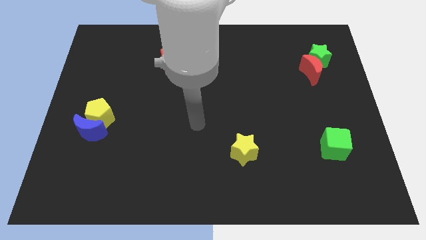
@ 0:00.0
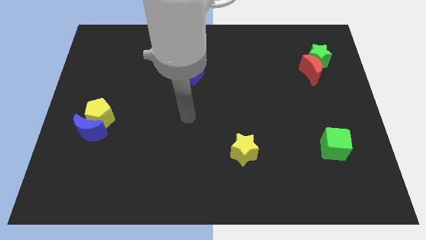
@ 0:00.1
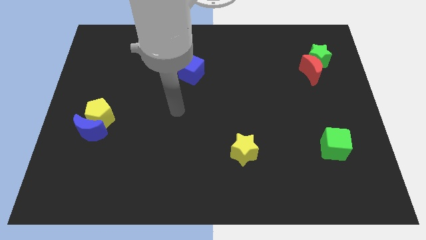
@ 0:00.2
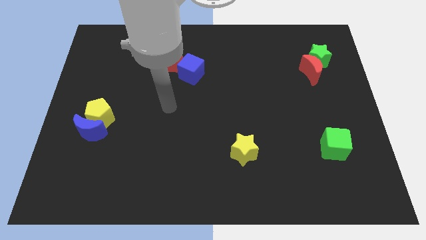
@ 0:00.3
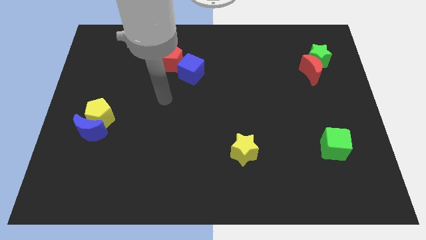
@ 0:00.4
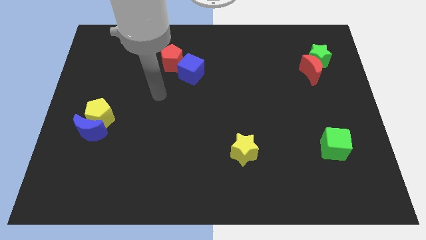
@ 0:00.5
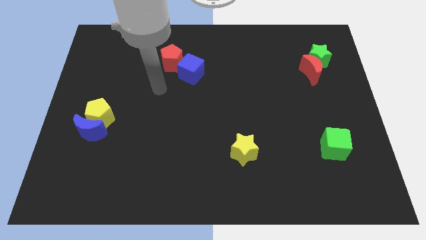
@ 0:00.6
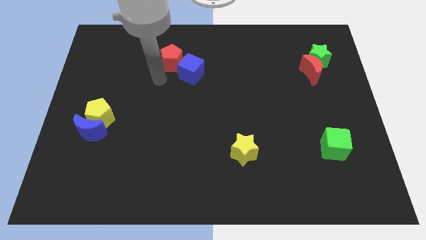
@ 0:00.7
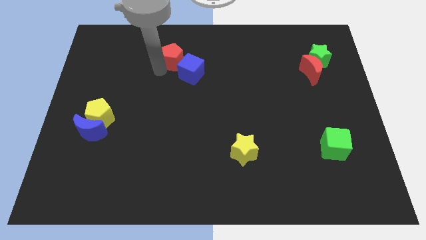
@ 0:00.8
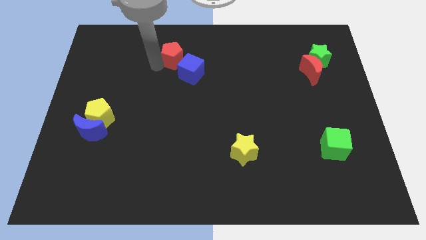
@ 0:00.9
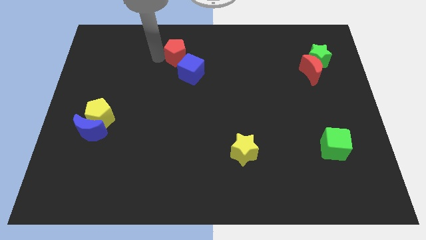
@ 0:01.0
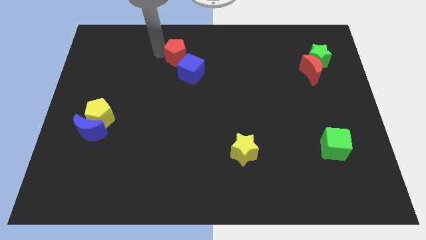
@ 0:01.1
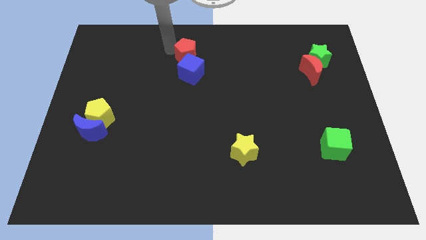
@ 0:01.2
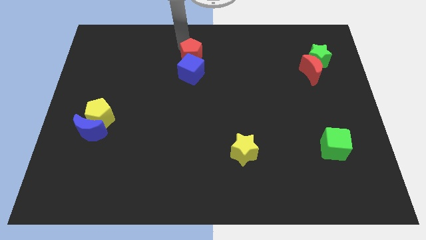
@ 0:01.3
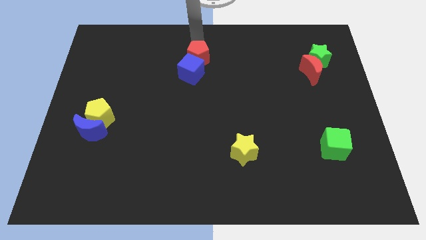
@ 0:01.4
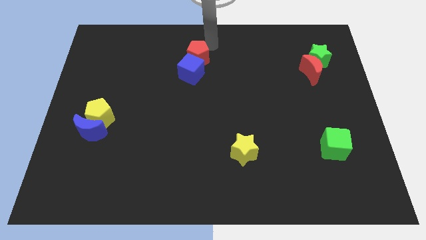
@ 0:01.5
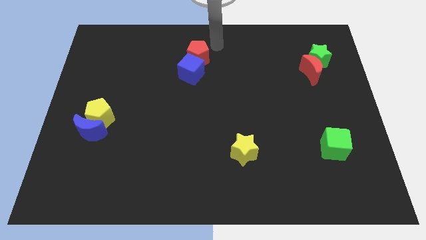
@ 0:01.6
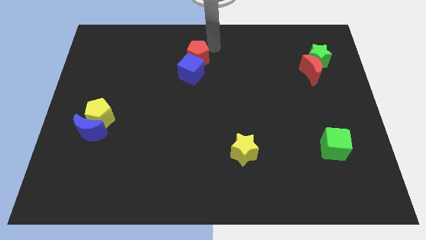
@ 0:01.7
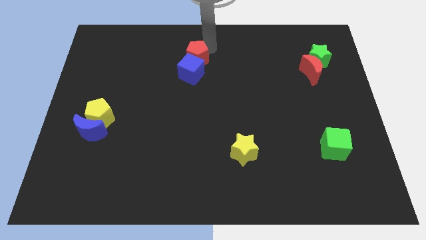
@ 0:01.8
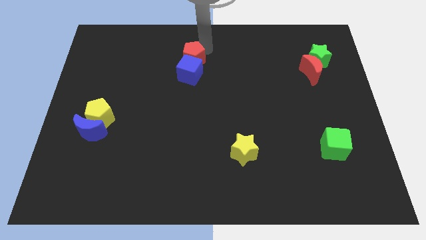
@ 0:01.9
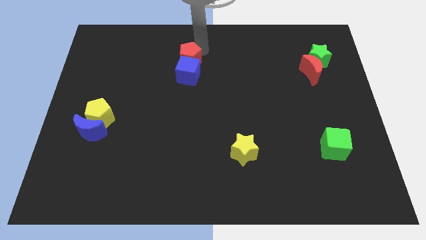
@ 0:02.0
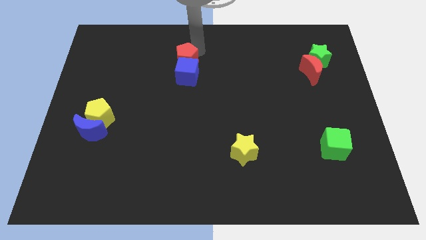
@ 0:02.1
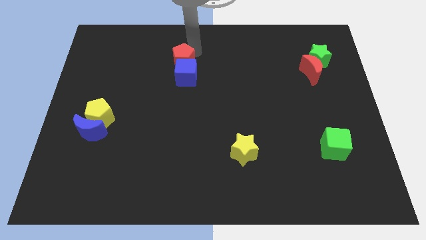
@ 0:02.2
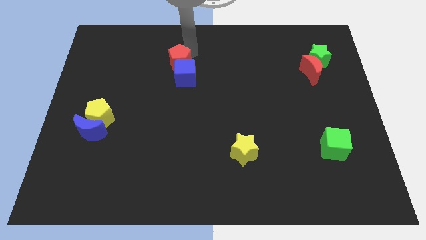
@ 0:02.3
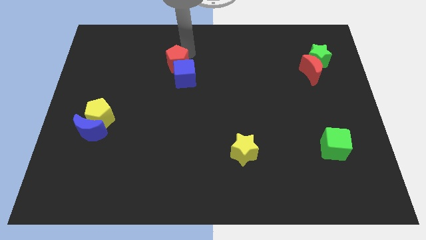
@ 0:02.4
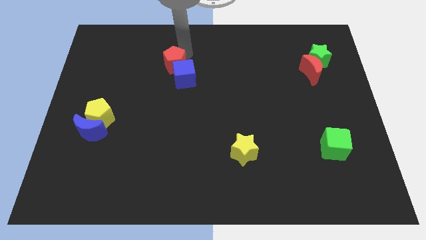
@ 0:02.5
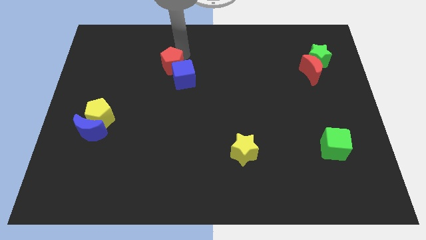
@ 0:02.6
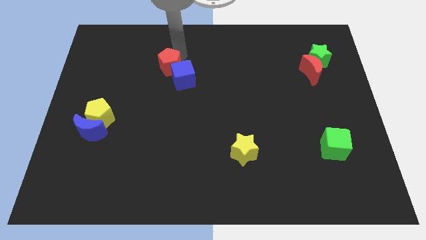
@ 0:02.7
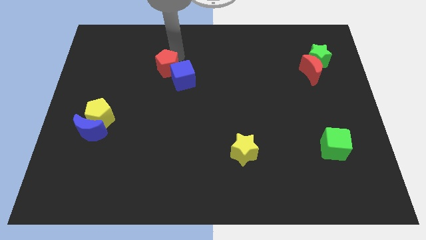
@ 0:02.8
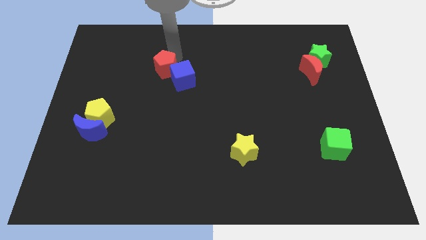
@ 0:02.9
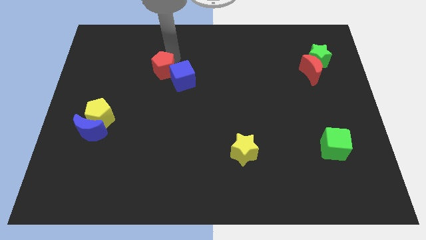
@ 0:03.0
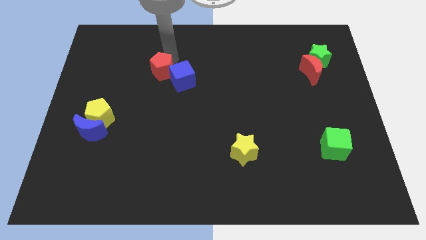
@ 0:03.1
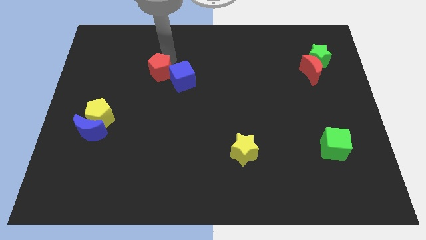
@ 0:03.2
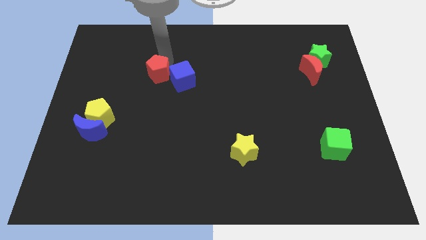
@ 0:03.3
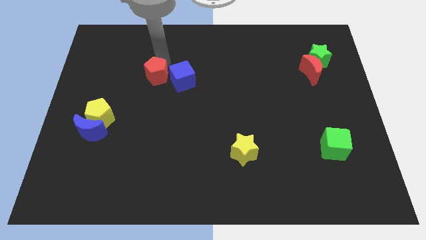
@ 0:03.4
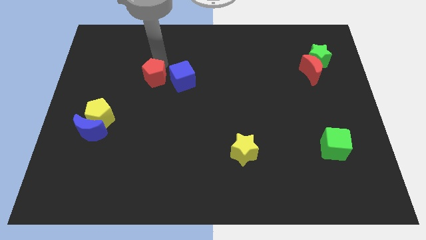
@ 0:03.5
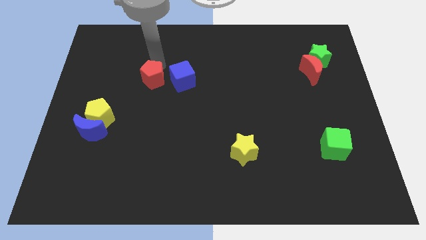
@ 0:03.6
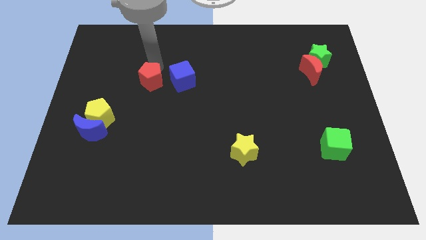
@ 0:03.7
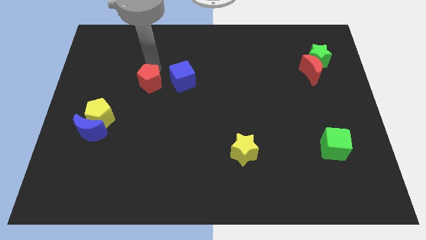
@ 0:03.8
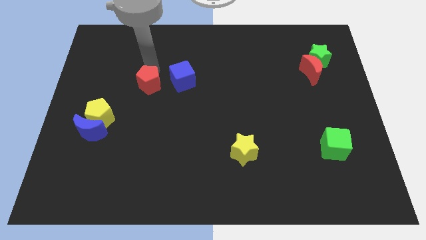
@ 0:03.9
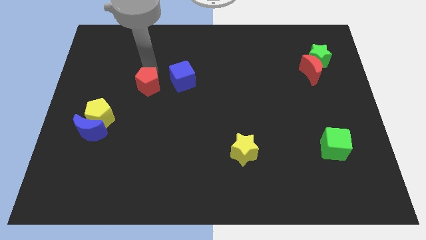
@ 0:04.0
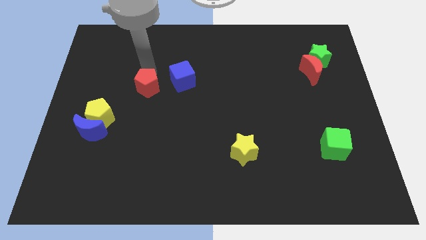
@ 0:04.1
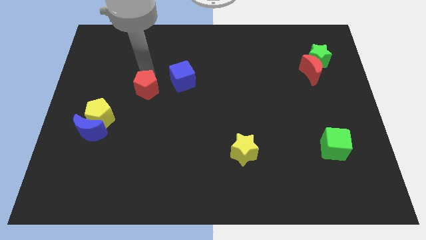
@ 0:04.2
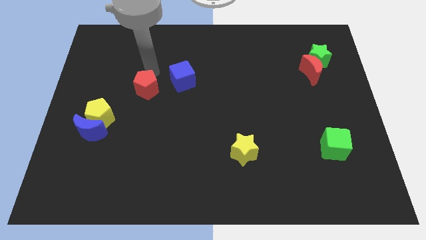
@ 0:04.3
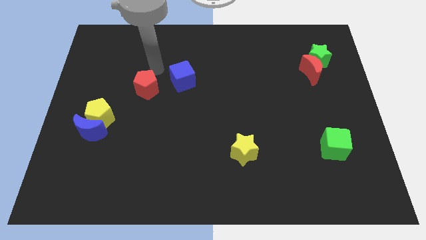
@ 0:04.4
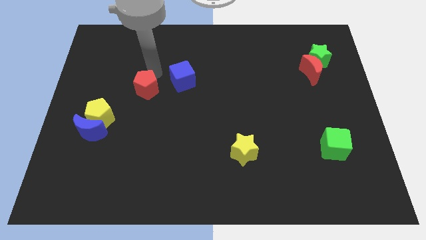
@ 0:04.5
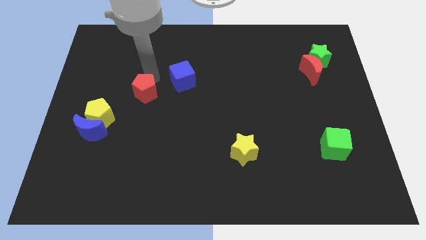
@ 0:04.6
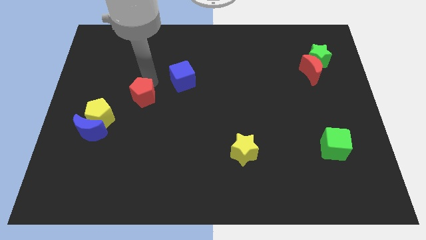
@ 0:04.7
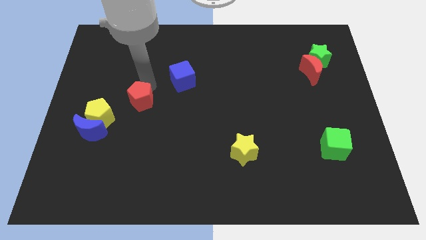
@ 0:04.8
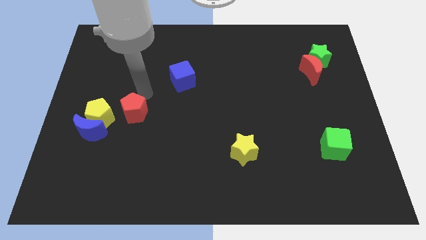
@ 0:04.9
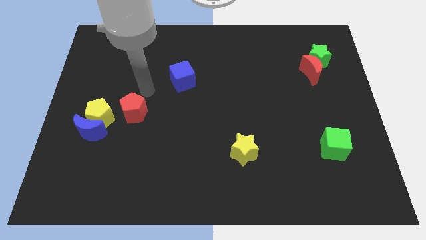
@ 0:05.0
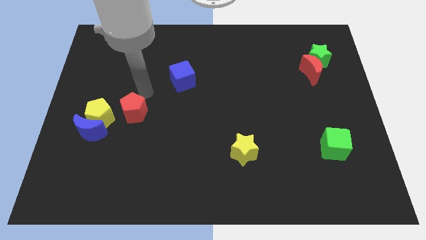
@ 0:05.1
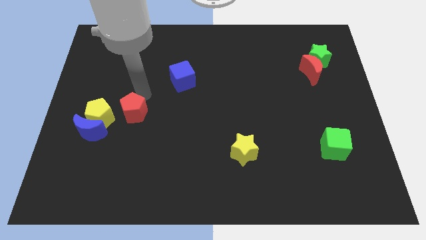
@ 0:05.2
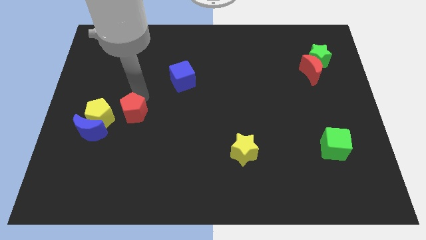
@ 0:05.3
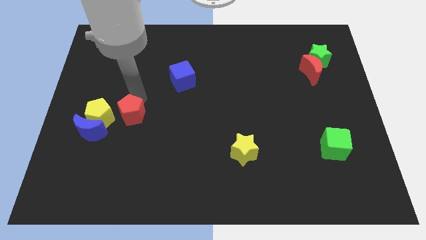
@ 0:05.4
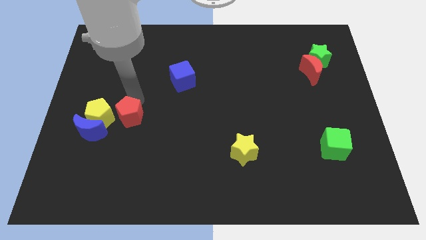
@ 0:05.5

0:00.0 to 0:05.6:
put the red pentagon to the bottom right side of the yellow pentagon

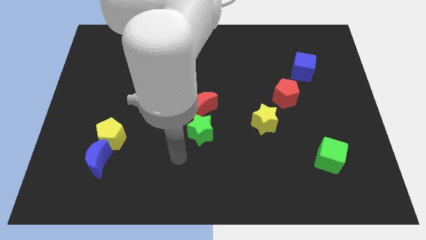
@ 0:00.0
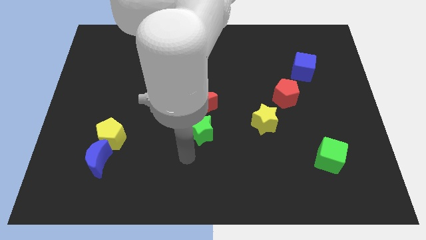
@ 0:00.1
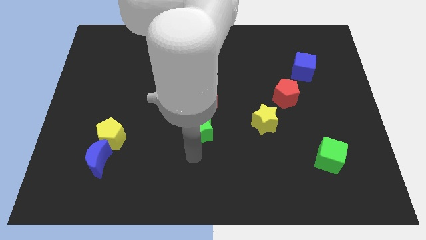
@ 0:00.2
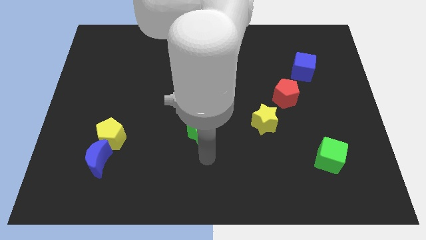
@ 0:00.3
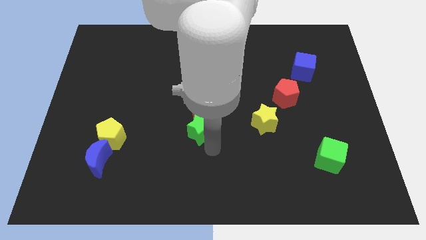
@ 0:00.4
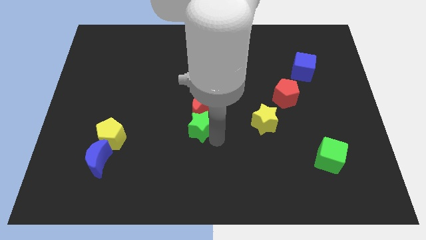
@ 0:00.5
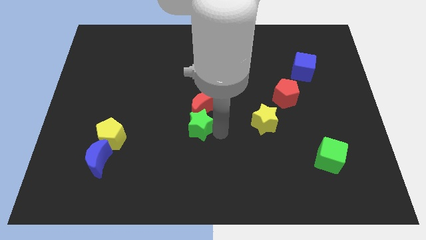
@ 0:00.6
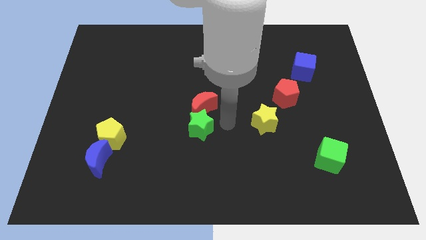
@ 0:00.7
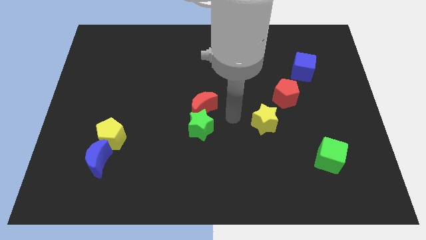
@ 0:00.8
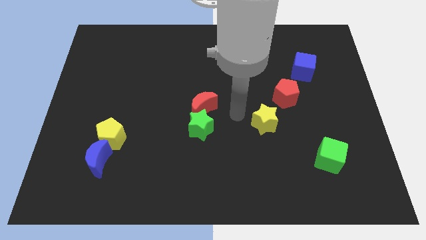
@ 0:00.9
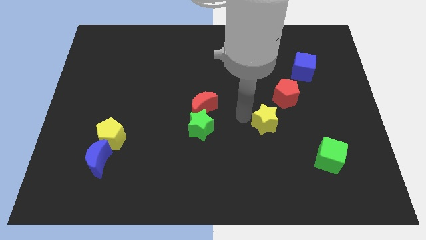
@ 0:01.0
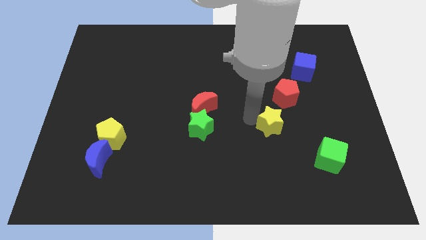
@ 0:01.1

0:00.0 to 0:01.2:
move the yellow star to the bottom of the red pentagon

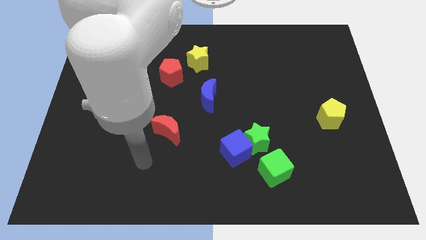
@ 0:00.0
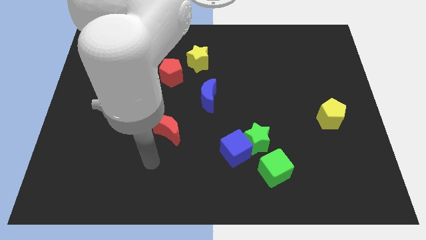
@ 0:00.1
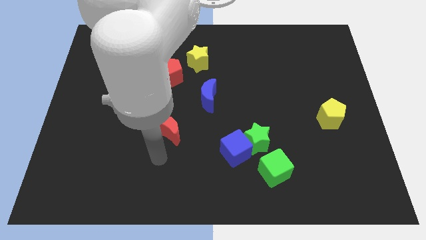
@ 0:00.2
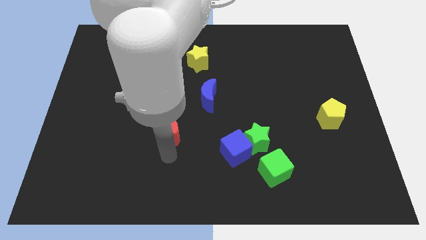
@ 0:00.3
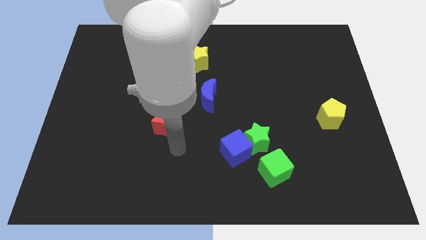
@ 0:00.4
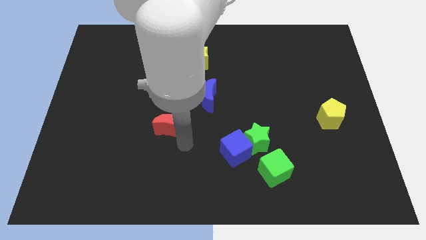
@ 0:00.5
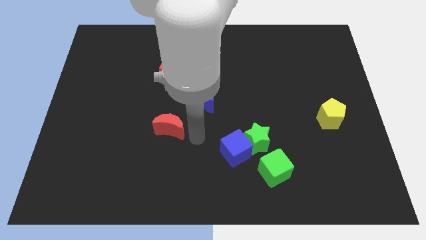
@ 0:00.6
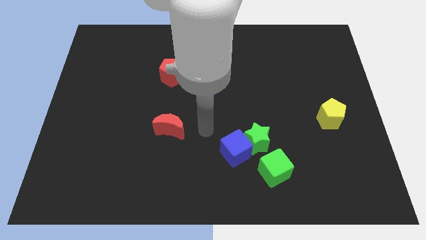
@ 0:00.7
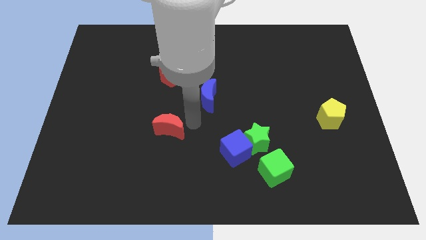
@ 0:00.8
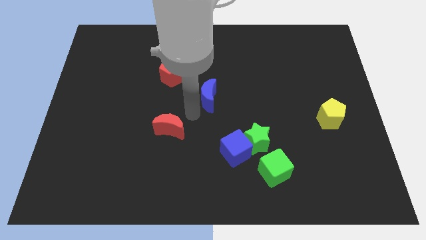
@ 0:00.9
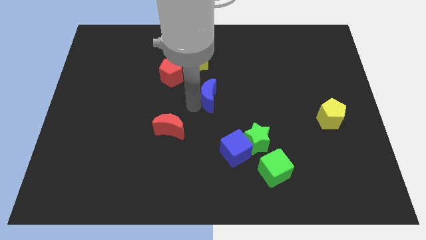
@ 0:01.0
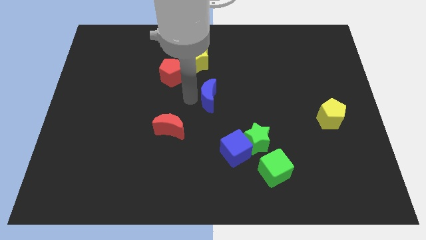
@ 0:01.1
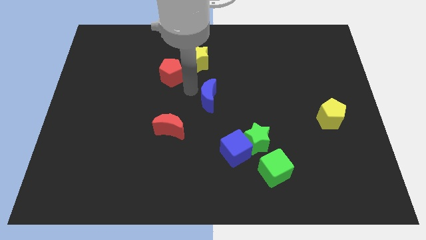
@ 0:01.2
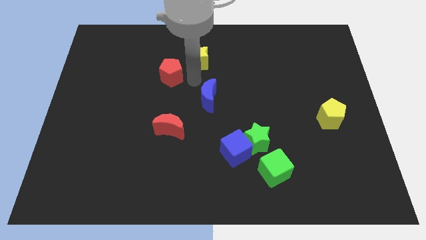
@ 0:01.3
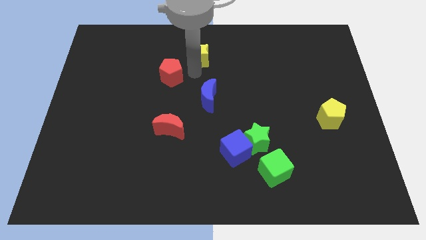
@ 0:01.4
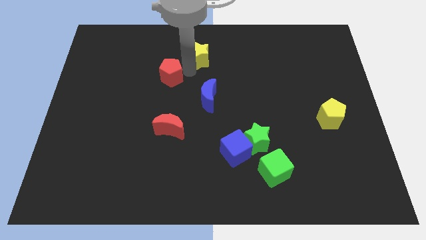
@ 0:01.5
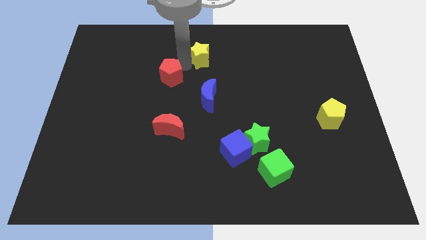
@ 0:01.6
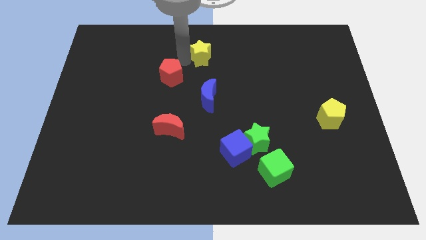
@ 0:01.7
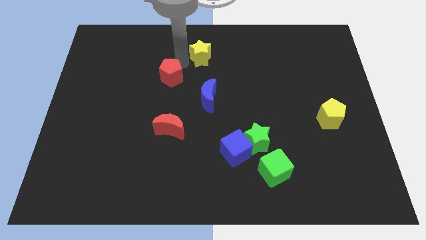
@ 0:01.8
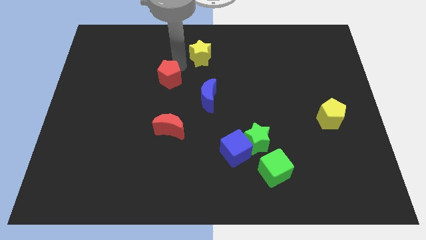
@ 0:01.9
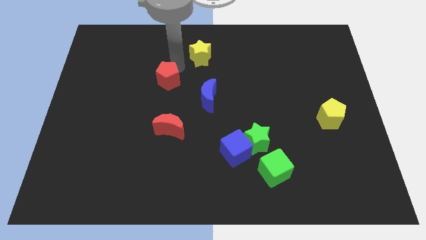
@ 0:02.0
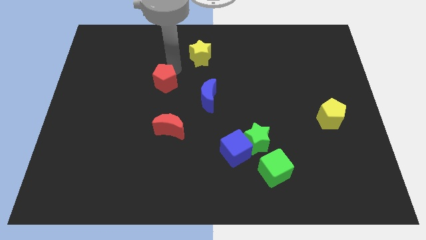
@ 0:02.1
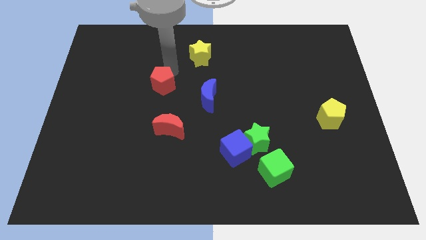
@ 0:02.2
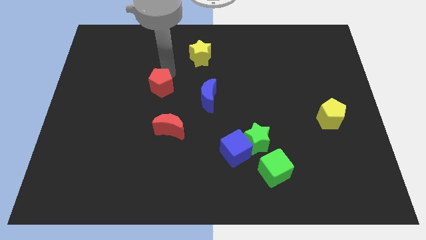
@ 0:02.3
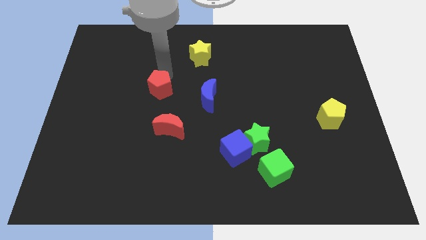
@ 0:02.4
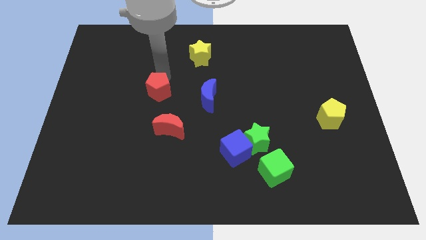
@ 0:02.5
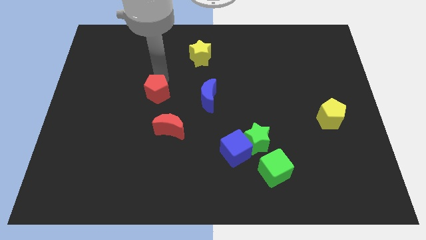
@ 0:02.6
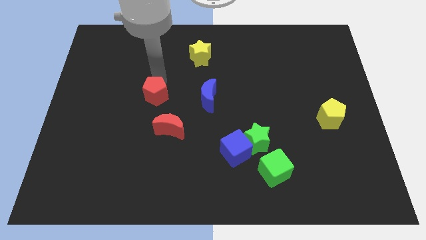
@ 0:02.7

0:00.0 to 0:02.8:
slide the red pentagon to the top left side of the red moon
